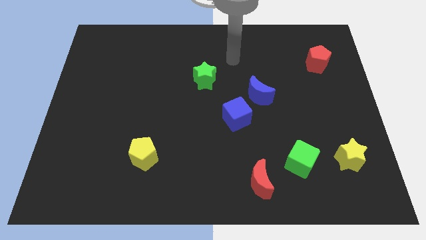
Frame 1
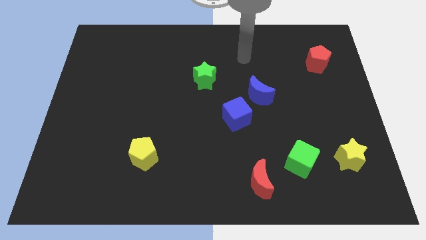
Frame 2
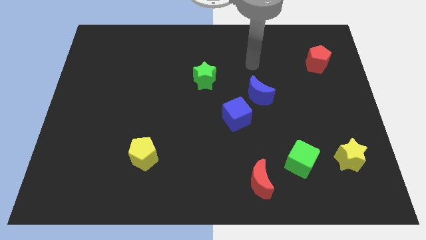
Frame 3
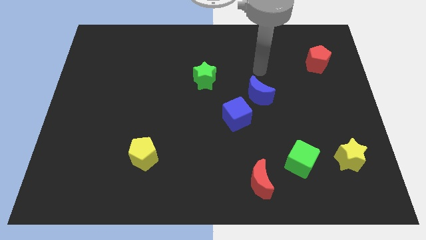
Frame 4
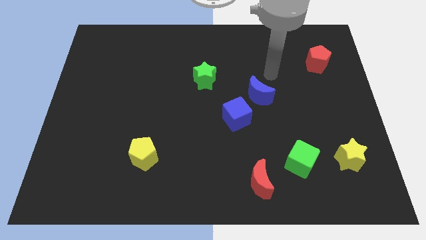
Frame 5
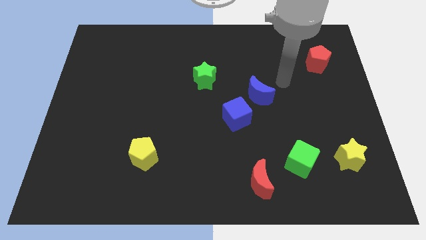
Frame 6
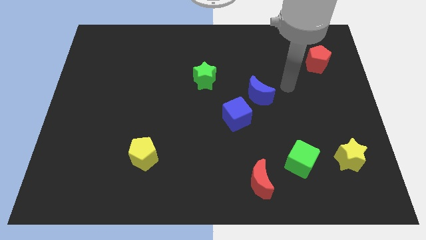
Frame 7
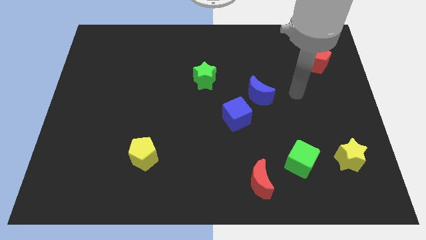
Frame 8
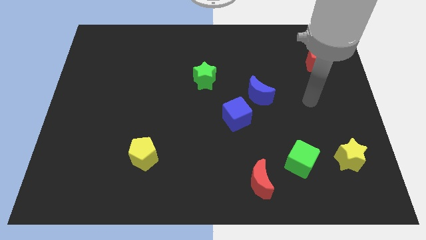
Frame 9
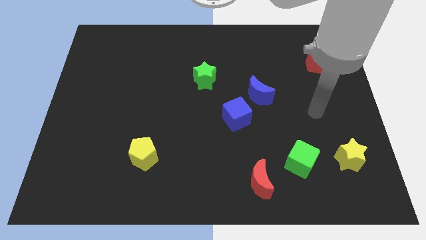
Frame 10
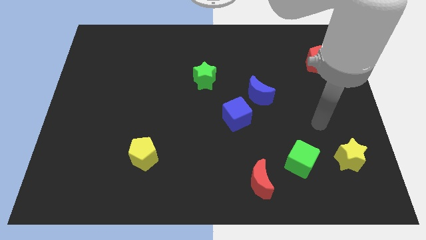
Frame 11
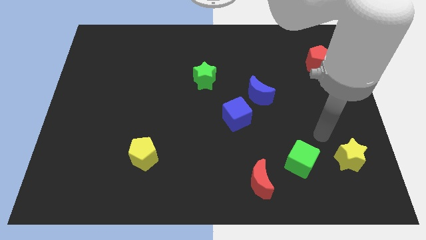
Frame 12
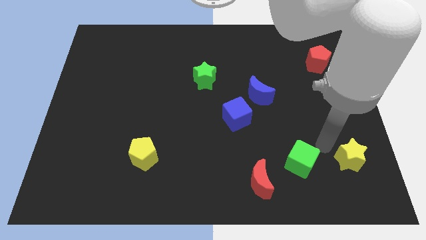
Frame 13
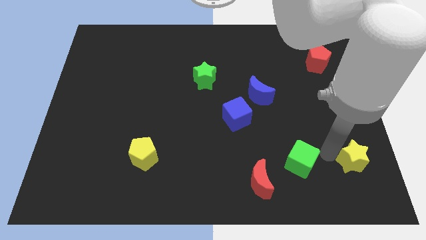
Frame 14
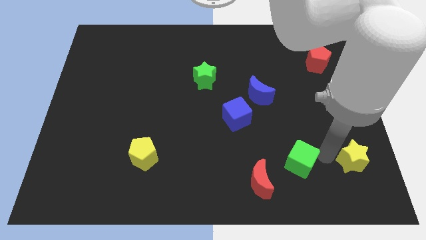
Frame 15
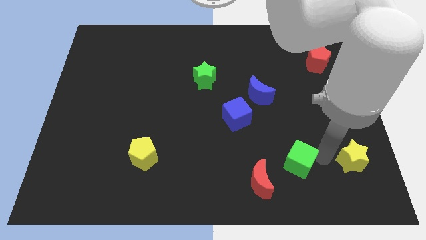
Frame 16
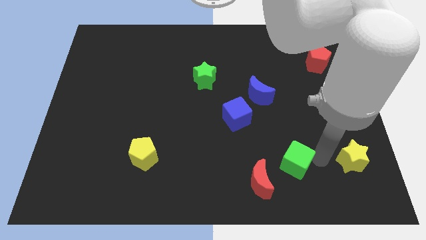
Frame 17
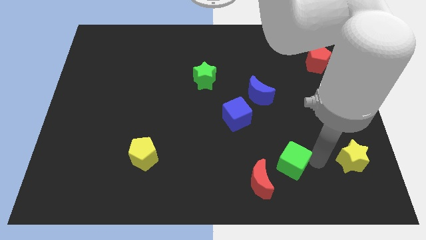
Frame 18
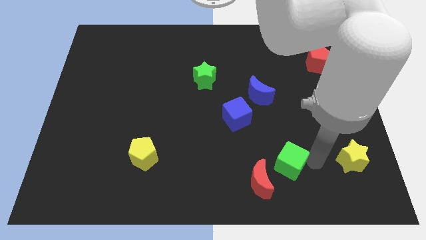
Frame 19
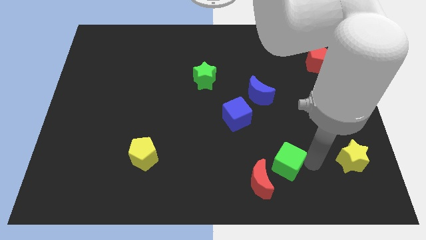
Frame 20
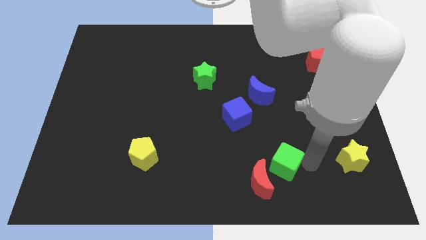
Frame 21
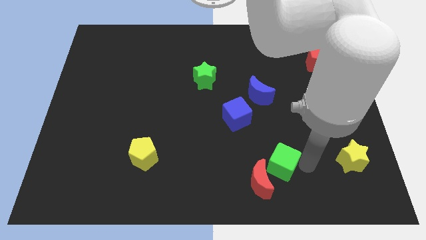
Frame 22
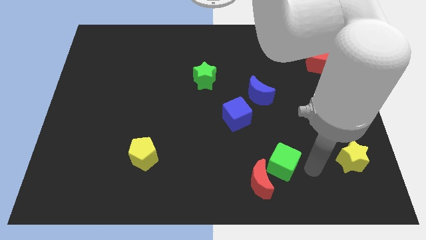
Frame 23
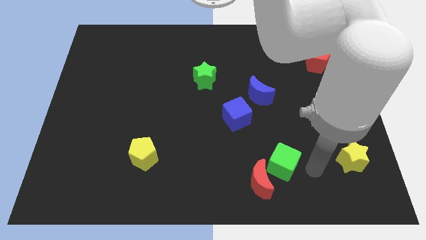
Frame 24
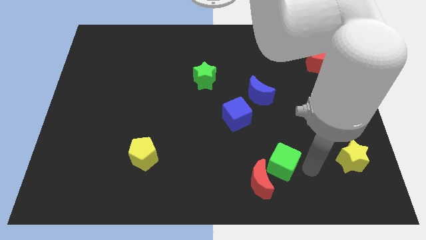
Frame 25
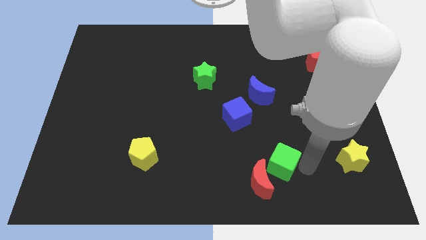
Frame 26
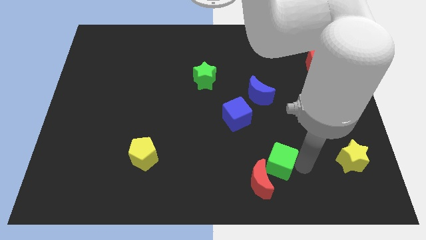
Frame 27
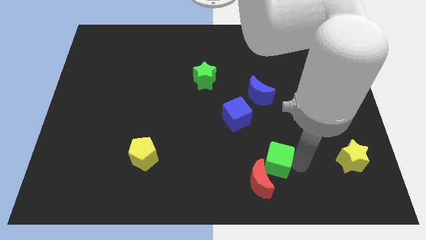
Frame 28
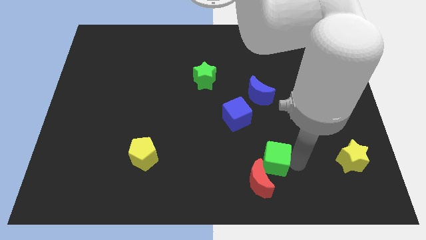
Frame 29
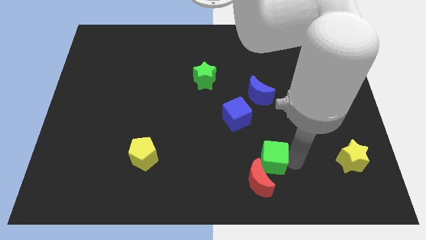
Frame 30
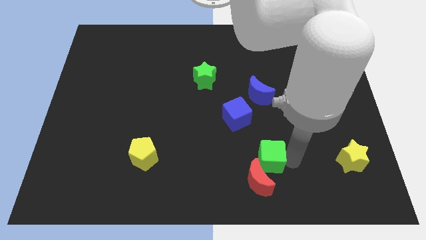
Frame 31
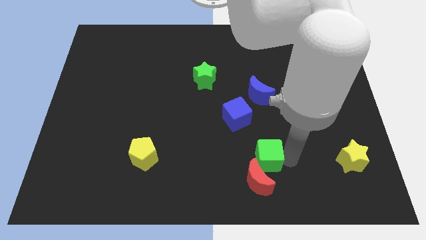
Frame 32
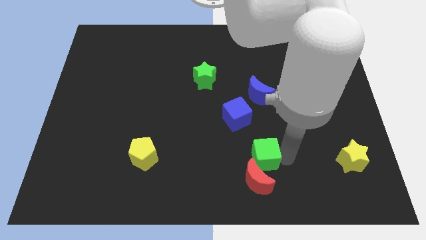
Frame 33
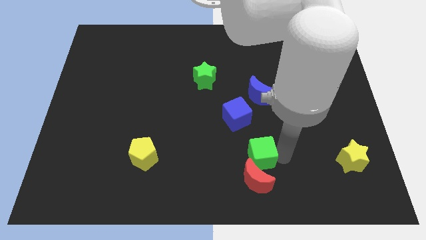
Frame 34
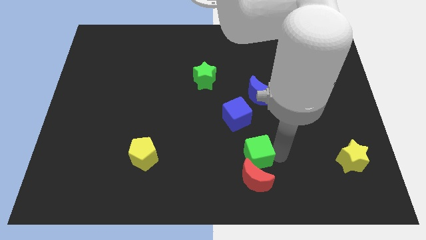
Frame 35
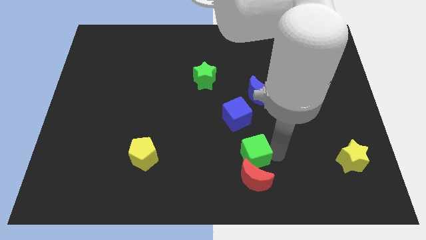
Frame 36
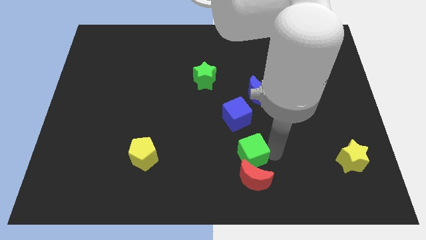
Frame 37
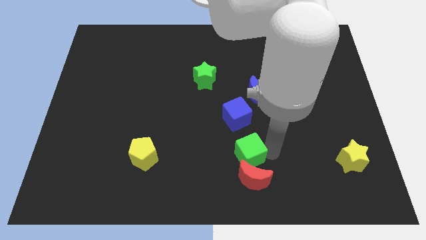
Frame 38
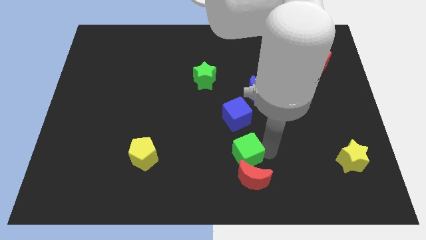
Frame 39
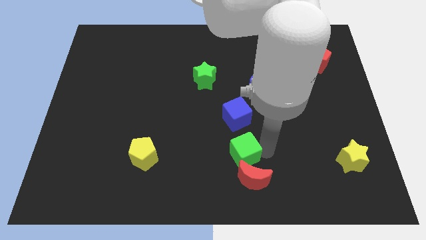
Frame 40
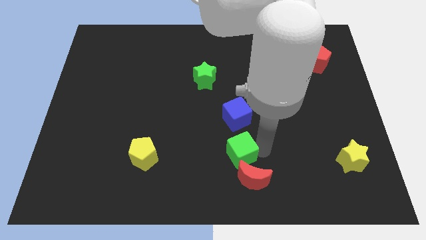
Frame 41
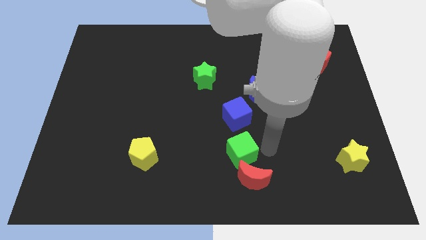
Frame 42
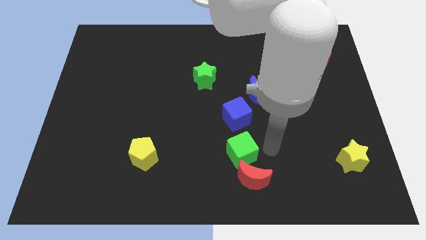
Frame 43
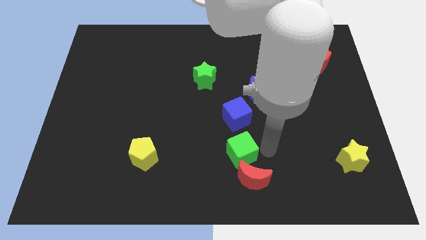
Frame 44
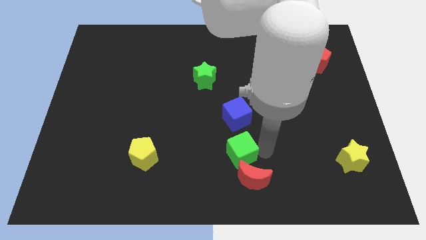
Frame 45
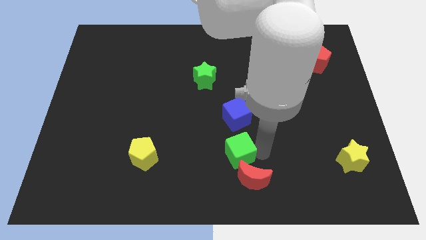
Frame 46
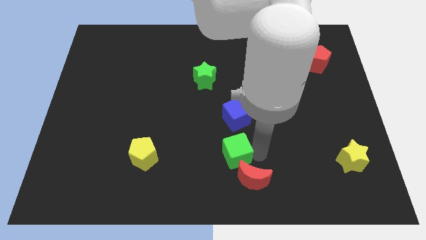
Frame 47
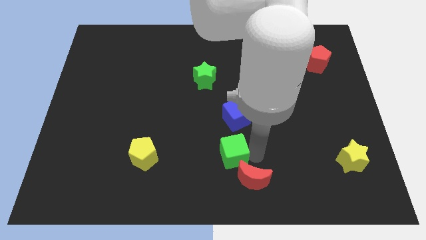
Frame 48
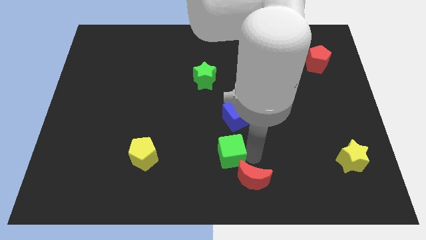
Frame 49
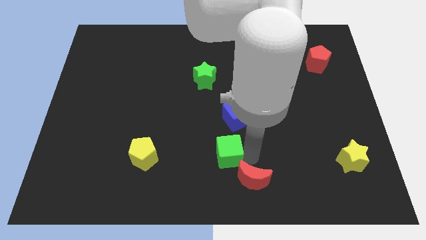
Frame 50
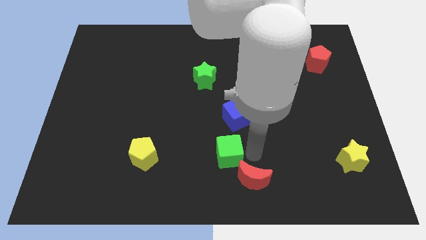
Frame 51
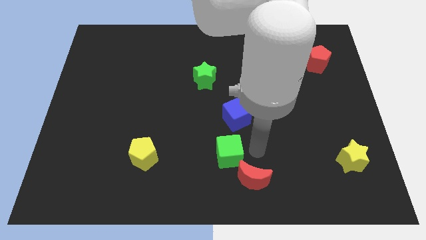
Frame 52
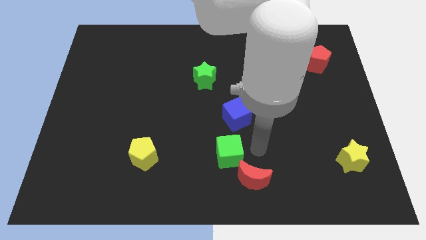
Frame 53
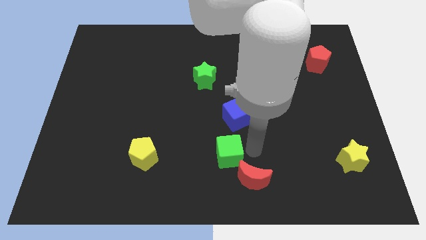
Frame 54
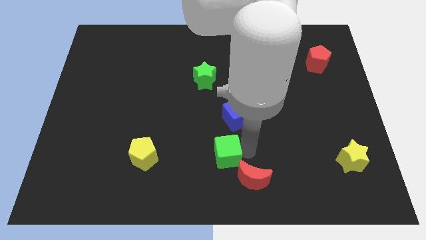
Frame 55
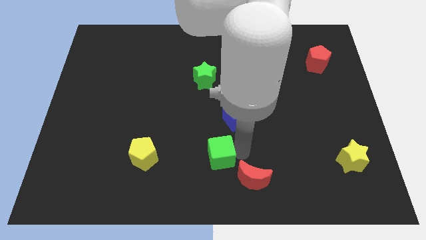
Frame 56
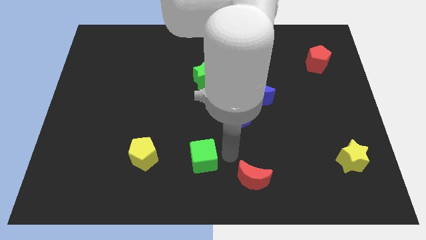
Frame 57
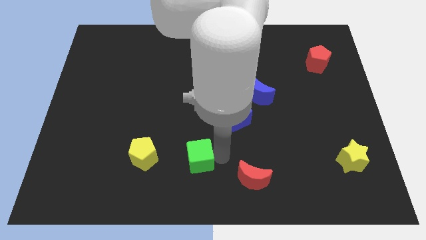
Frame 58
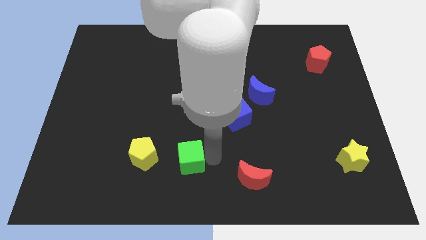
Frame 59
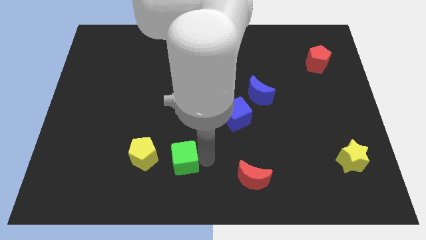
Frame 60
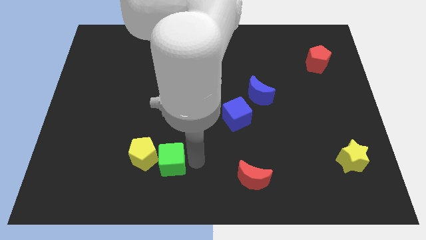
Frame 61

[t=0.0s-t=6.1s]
move the green cube towards the yellow pentagon

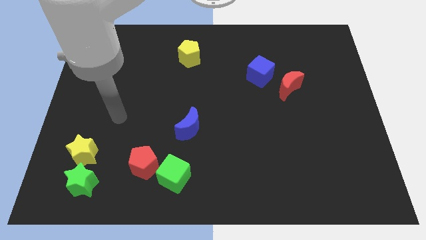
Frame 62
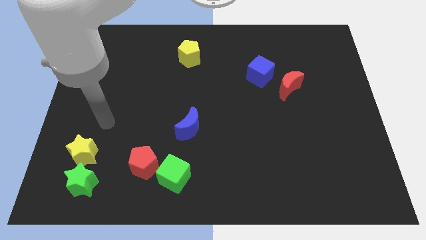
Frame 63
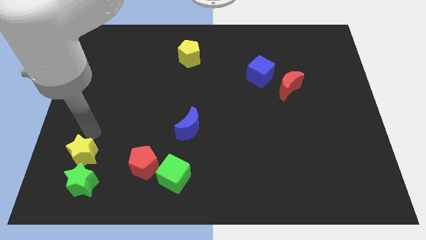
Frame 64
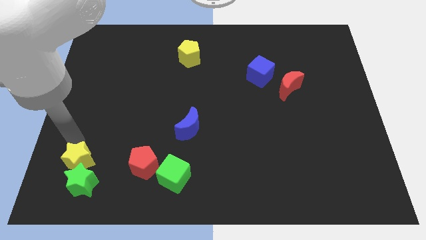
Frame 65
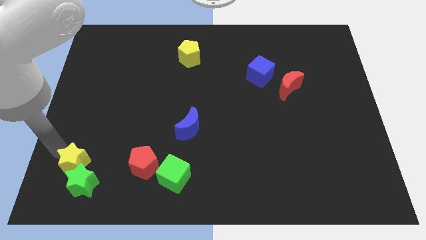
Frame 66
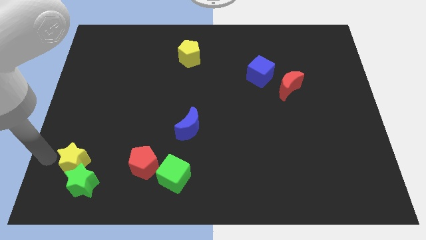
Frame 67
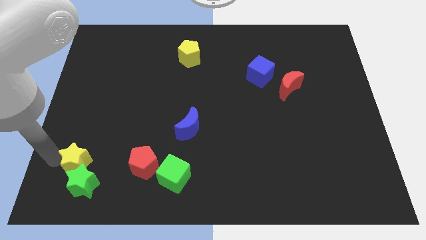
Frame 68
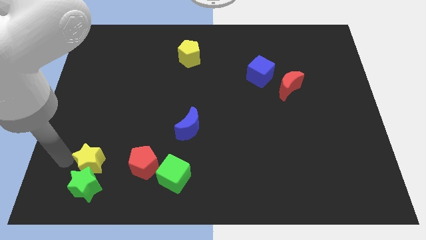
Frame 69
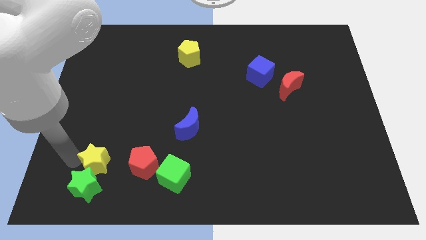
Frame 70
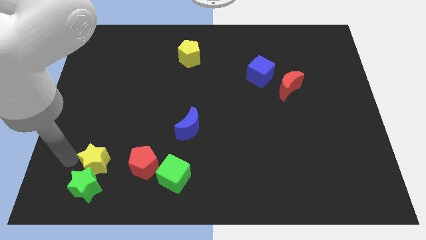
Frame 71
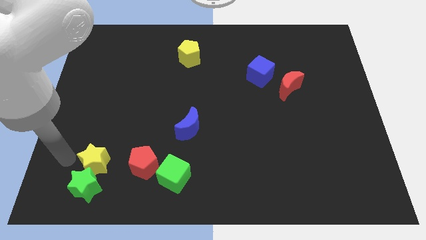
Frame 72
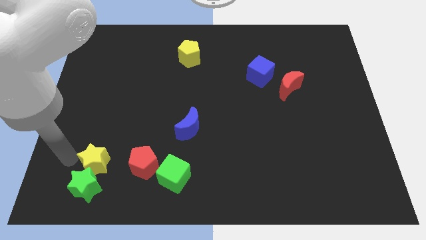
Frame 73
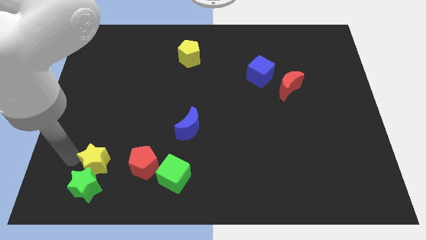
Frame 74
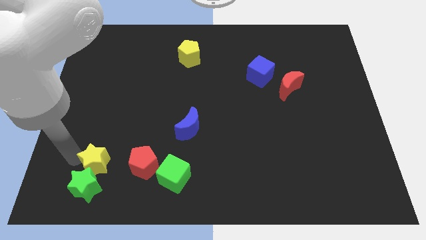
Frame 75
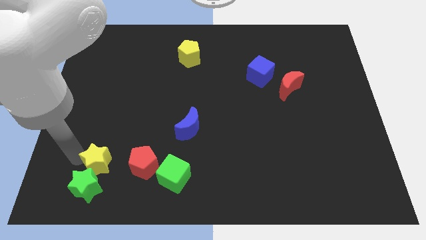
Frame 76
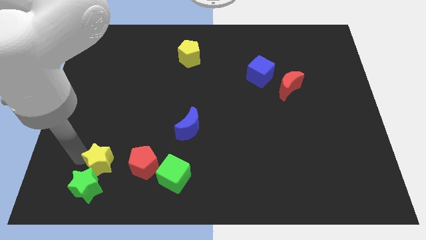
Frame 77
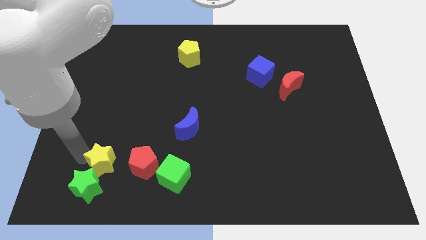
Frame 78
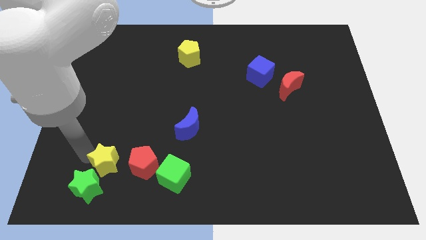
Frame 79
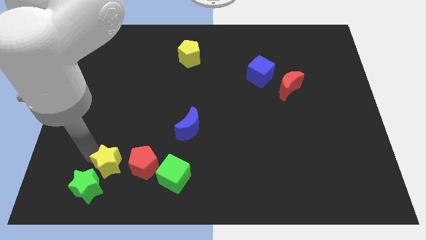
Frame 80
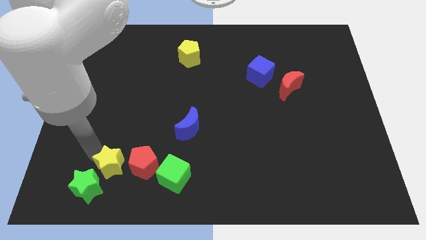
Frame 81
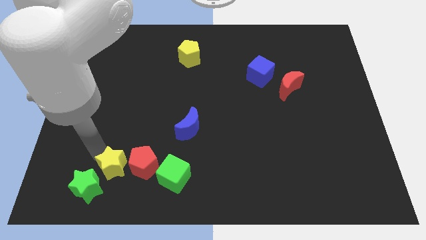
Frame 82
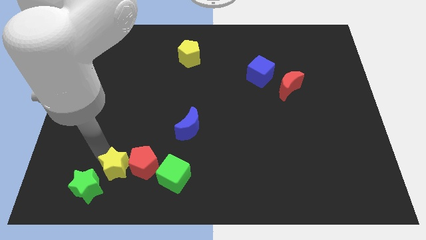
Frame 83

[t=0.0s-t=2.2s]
push the yellow star to the red pentagon
